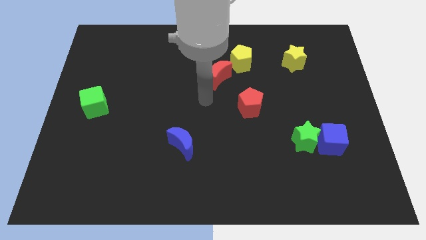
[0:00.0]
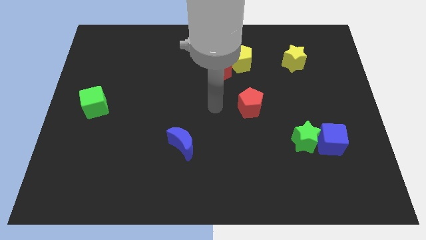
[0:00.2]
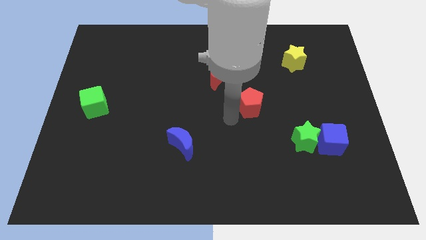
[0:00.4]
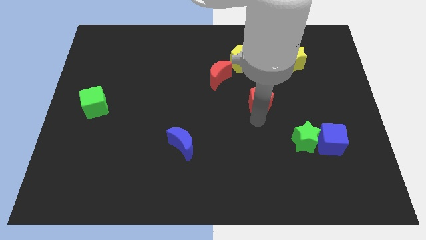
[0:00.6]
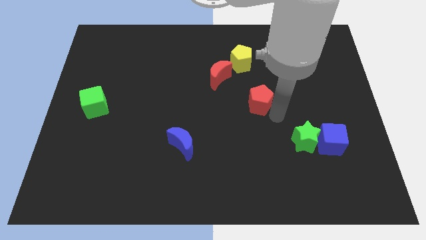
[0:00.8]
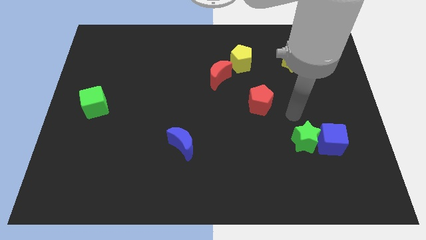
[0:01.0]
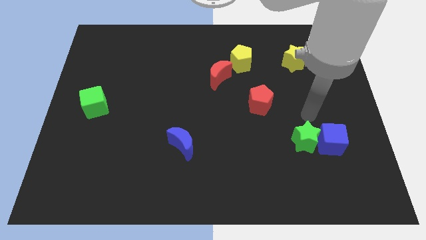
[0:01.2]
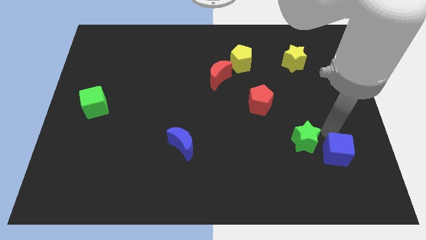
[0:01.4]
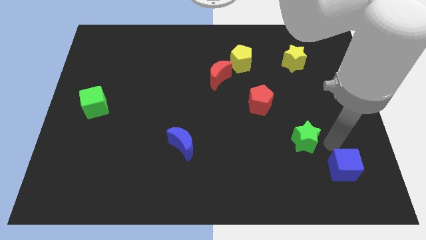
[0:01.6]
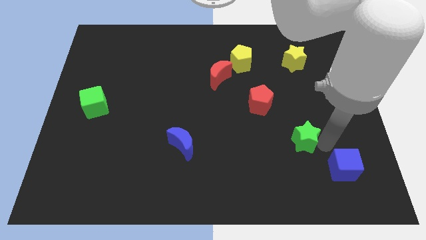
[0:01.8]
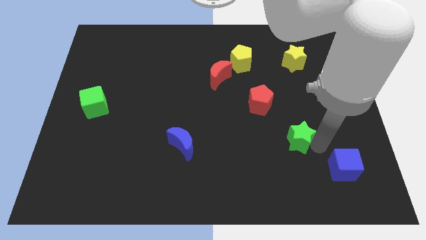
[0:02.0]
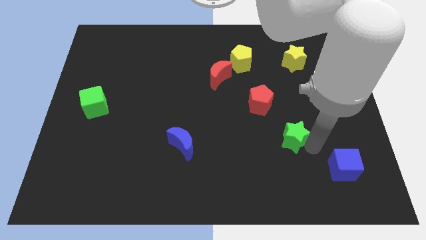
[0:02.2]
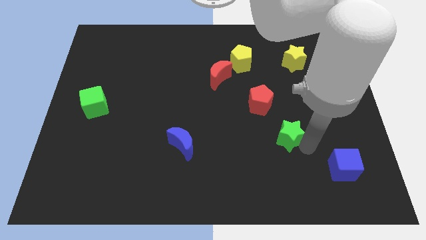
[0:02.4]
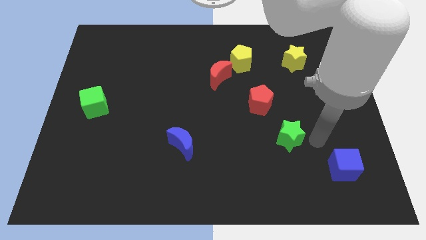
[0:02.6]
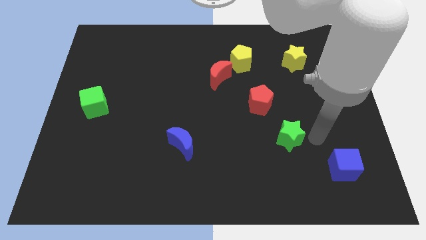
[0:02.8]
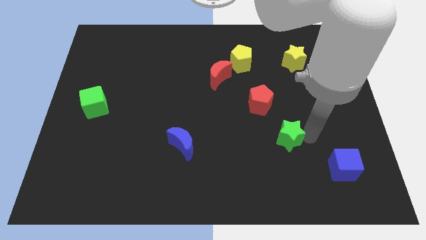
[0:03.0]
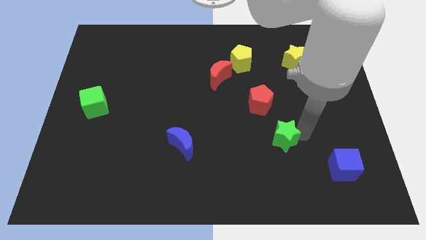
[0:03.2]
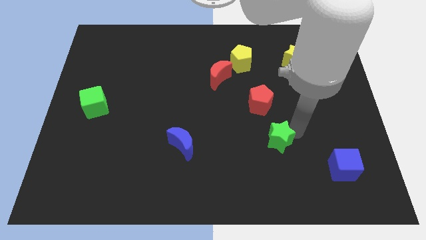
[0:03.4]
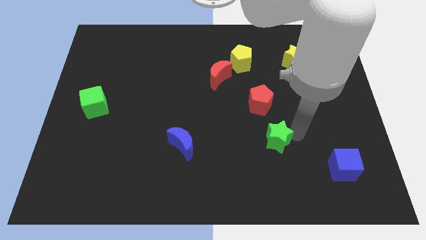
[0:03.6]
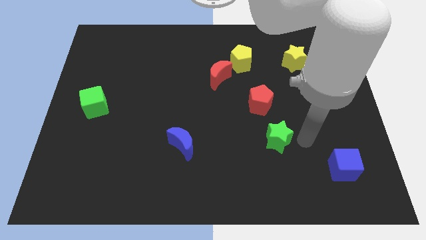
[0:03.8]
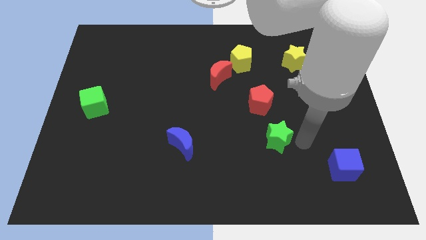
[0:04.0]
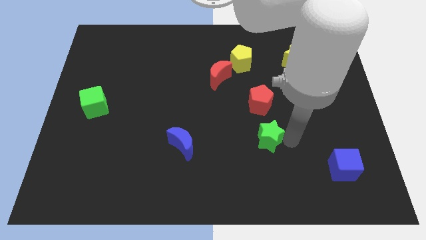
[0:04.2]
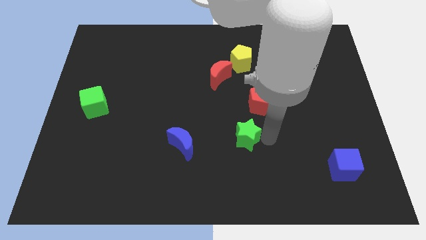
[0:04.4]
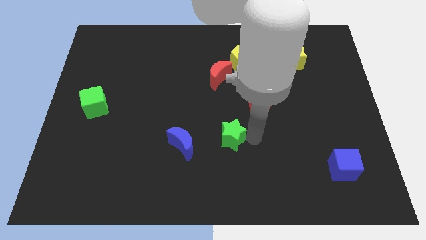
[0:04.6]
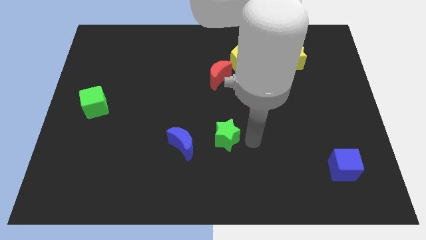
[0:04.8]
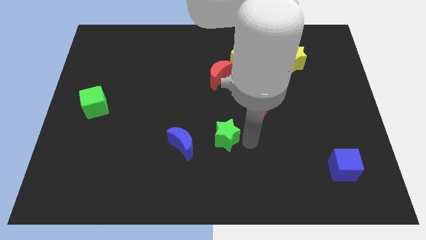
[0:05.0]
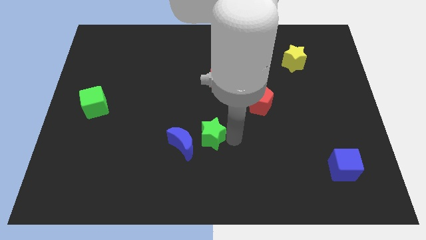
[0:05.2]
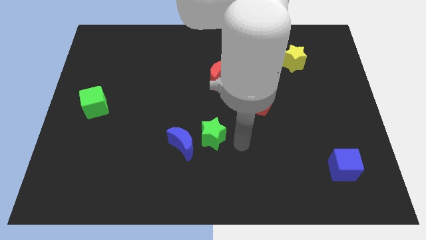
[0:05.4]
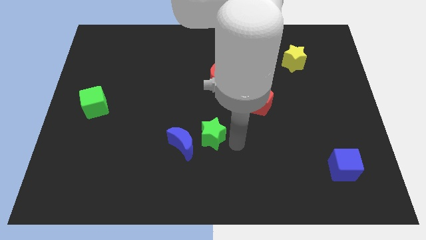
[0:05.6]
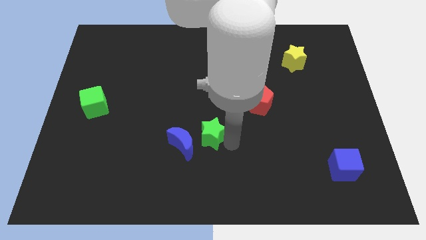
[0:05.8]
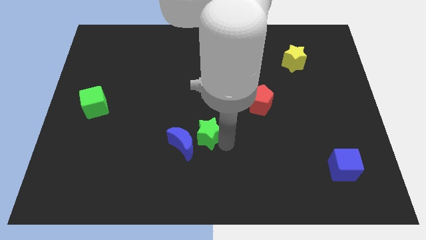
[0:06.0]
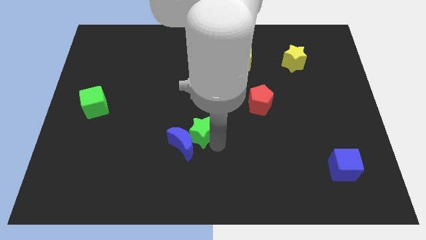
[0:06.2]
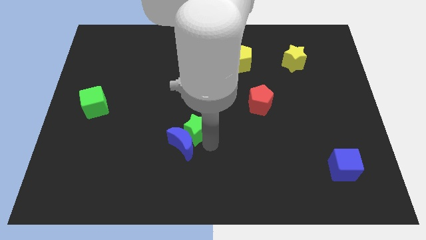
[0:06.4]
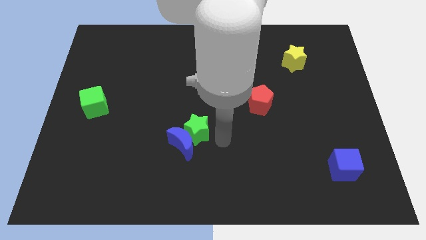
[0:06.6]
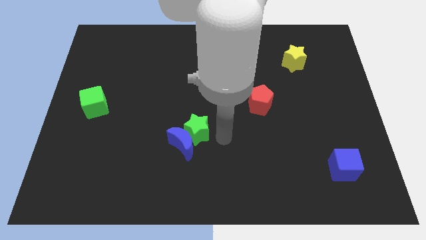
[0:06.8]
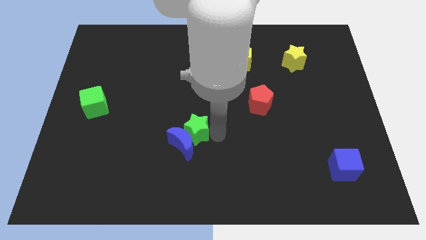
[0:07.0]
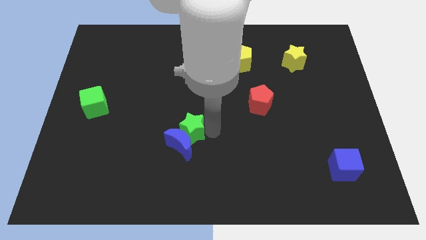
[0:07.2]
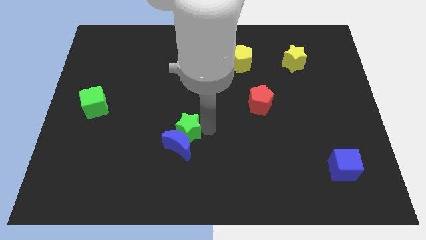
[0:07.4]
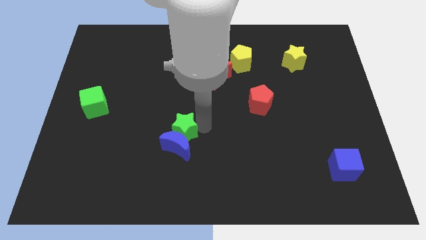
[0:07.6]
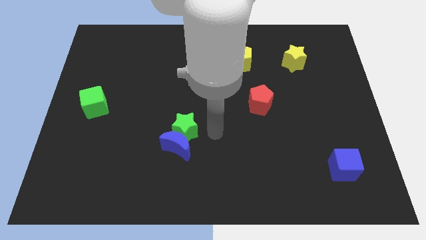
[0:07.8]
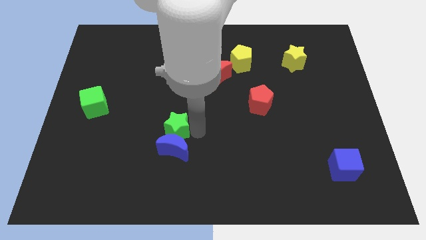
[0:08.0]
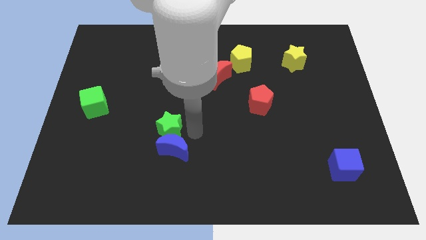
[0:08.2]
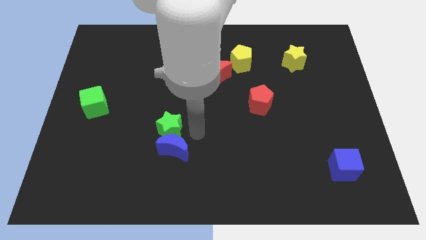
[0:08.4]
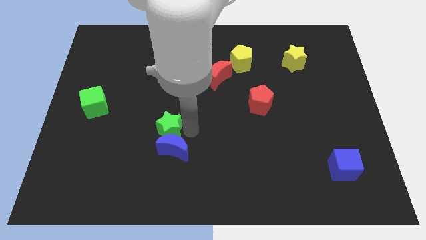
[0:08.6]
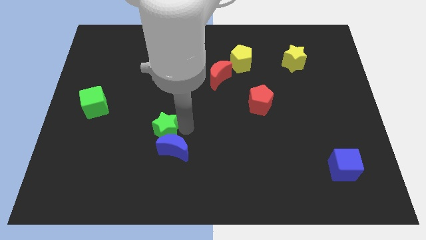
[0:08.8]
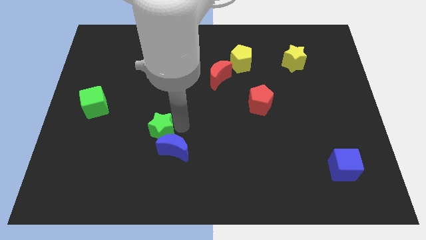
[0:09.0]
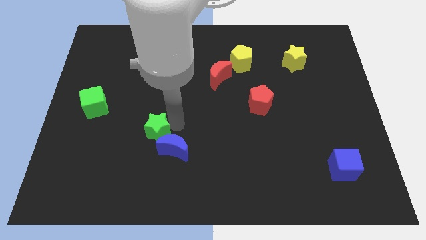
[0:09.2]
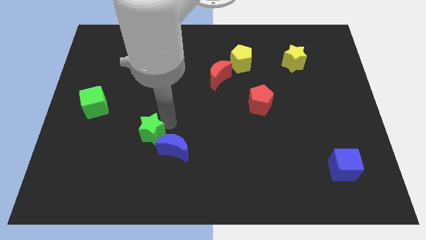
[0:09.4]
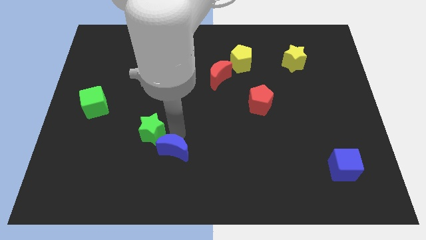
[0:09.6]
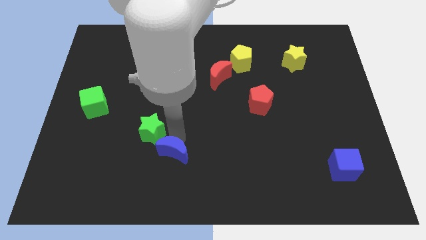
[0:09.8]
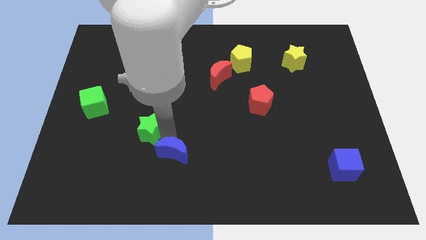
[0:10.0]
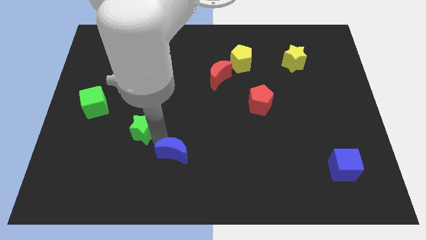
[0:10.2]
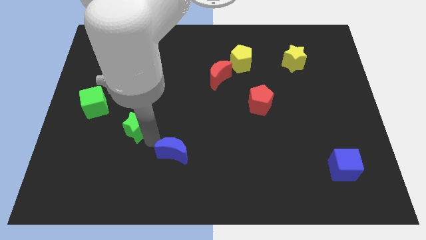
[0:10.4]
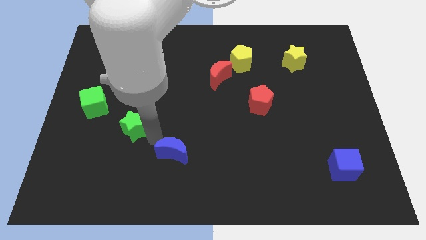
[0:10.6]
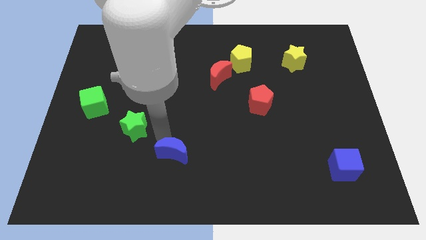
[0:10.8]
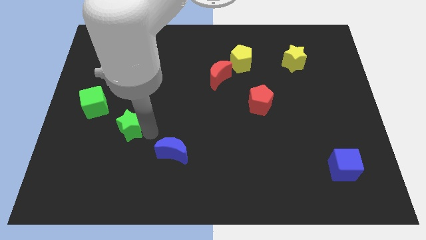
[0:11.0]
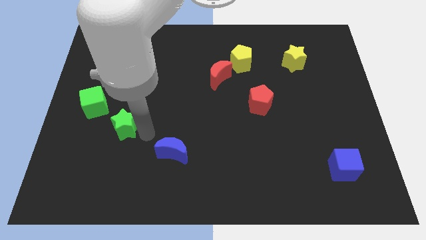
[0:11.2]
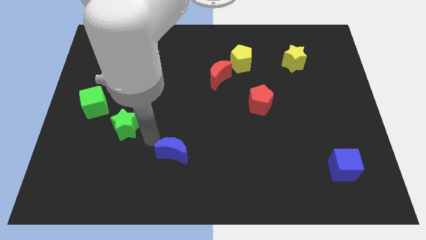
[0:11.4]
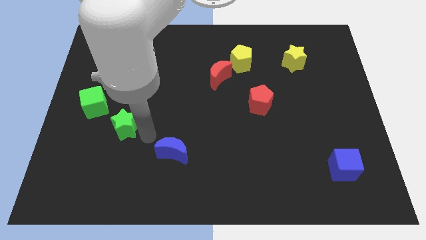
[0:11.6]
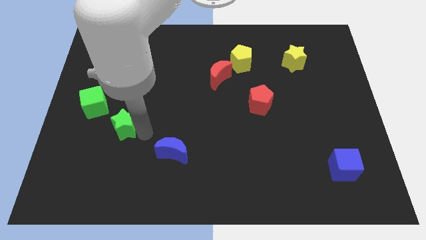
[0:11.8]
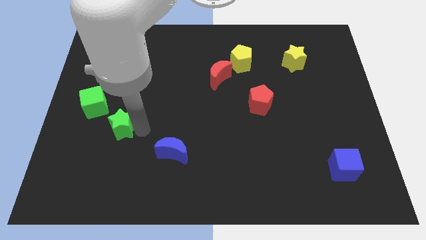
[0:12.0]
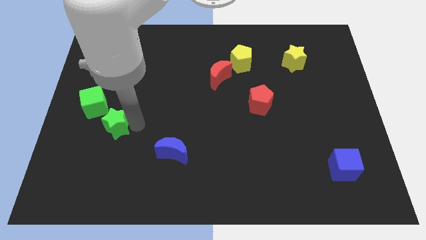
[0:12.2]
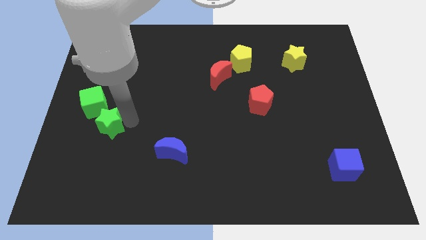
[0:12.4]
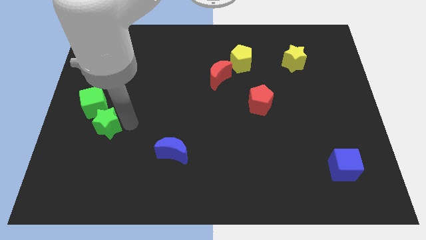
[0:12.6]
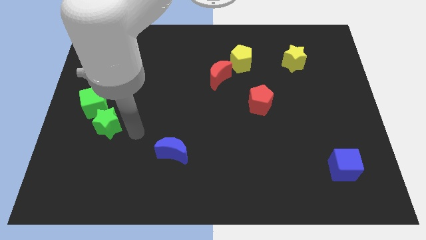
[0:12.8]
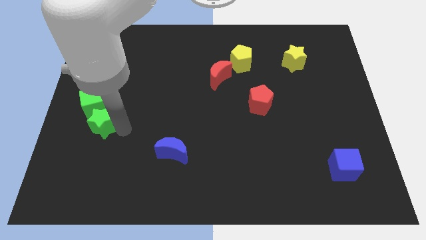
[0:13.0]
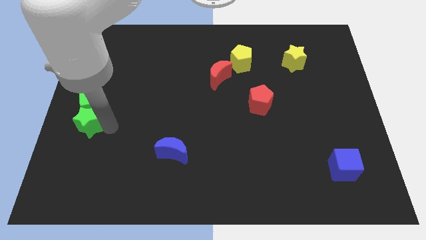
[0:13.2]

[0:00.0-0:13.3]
put the green star to the center left
